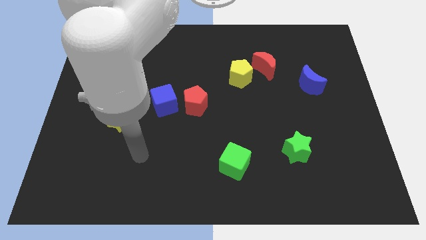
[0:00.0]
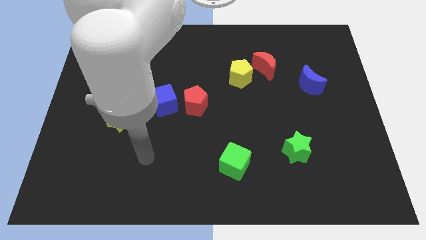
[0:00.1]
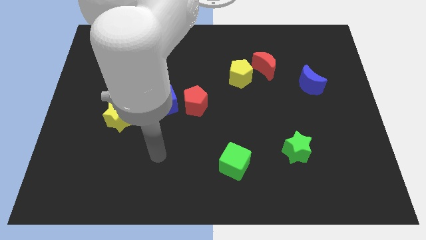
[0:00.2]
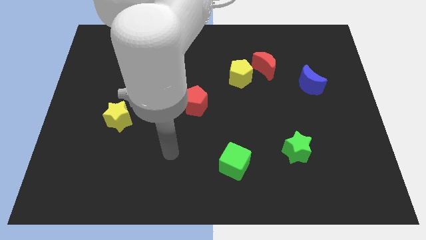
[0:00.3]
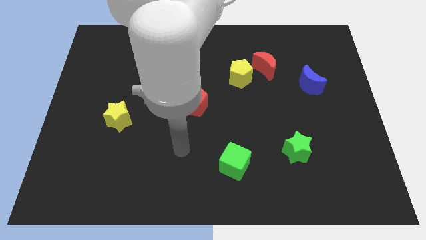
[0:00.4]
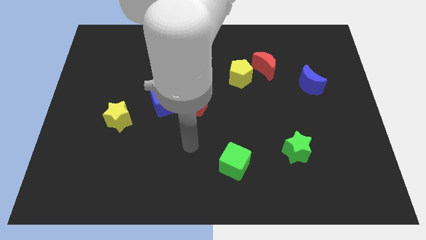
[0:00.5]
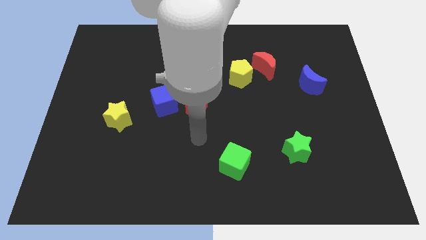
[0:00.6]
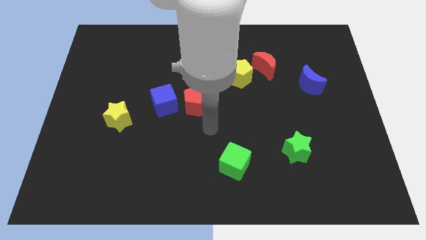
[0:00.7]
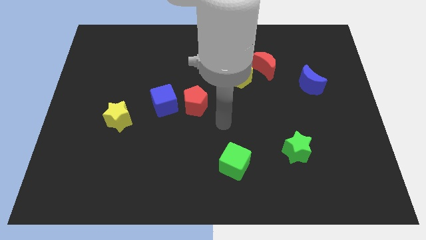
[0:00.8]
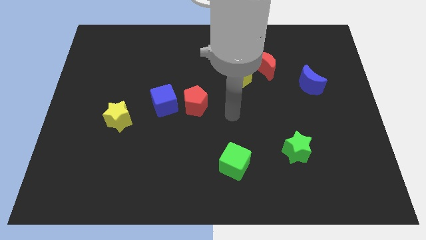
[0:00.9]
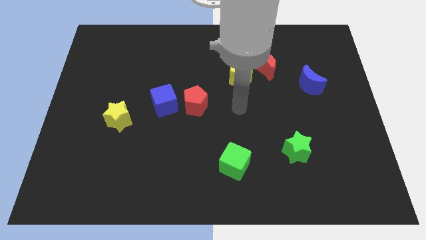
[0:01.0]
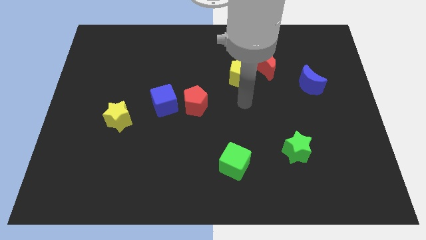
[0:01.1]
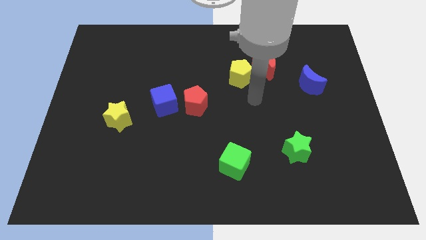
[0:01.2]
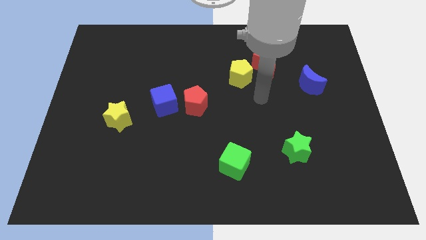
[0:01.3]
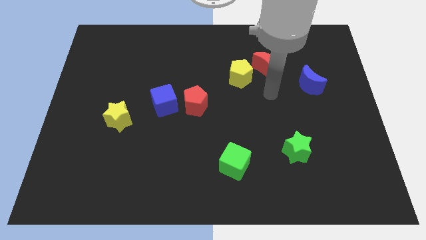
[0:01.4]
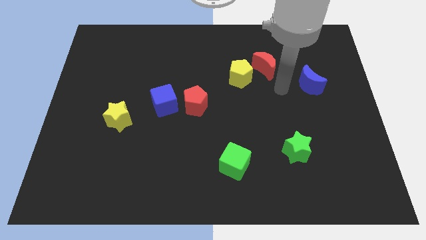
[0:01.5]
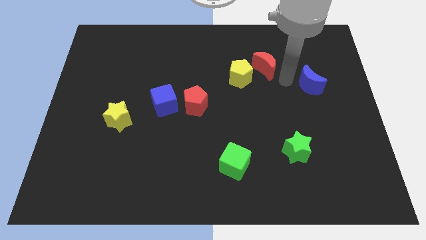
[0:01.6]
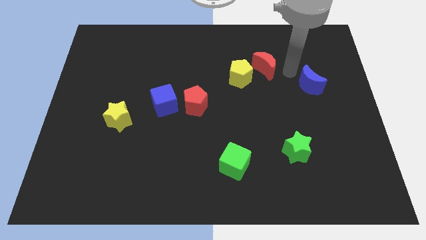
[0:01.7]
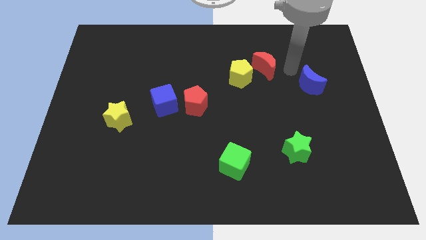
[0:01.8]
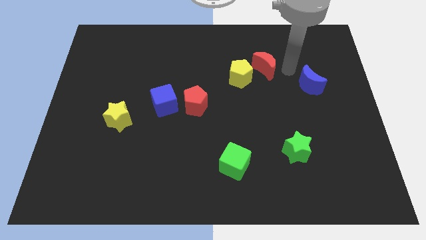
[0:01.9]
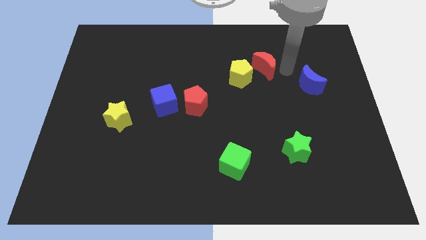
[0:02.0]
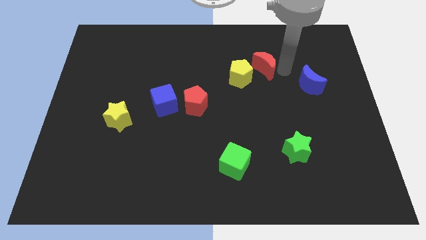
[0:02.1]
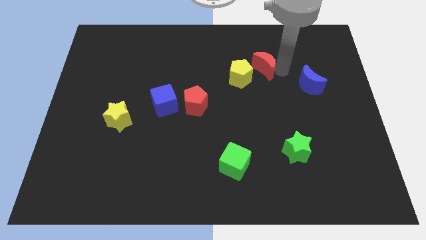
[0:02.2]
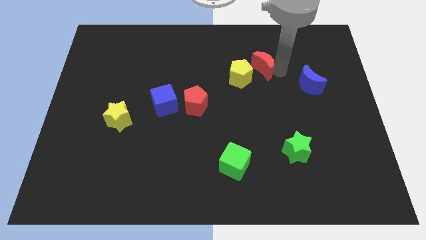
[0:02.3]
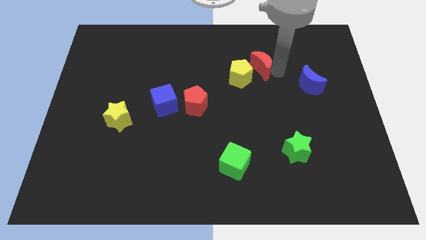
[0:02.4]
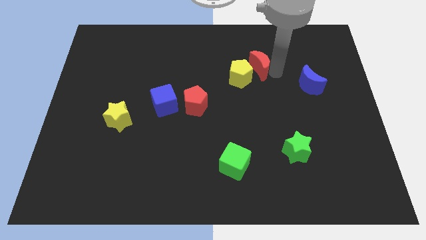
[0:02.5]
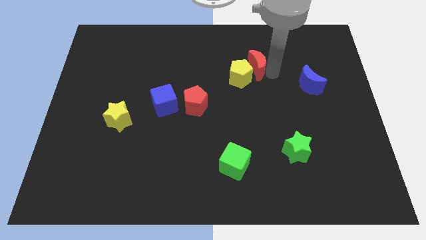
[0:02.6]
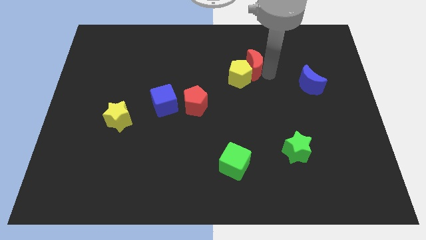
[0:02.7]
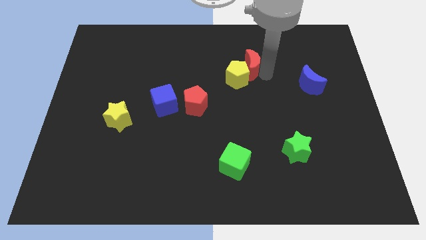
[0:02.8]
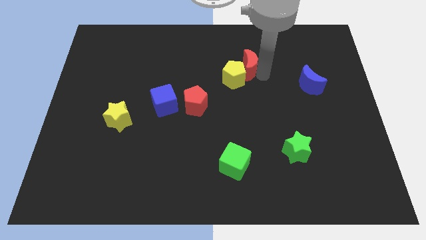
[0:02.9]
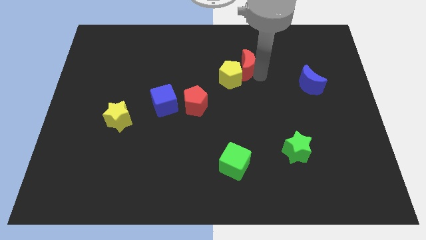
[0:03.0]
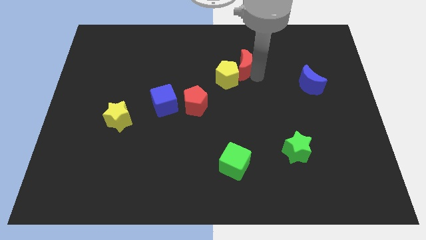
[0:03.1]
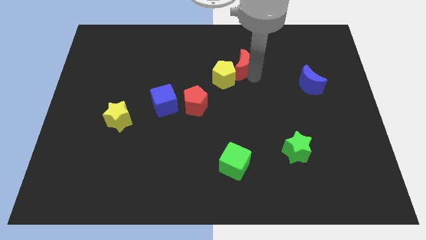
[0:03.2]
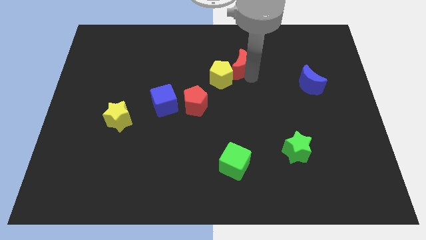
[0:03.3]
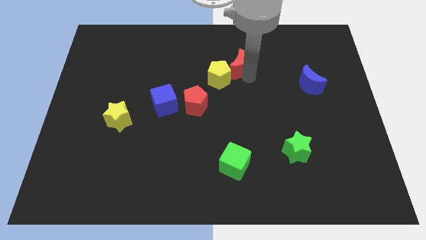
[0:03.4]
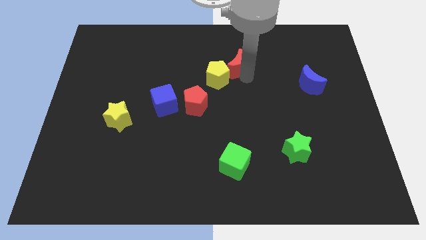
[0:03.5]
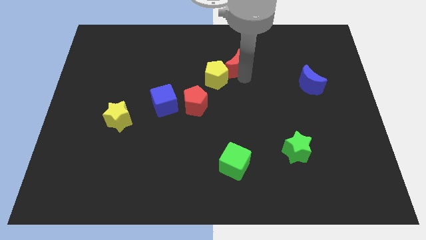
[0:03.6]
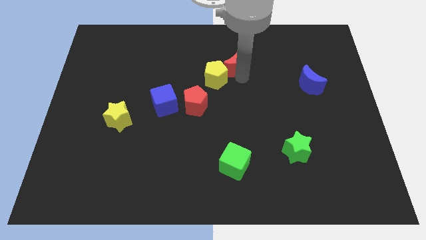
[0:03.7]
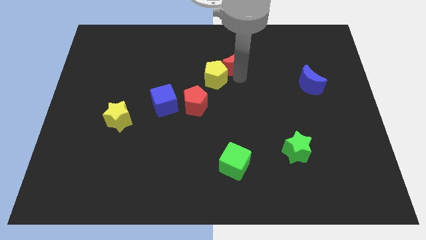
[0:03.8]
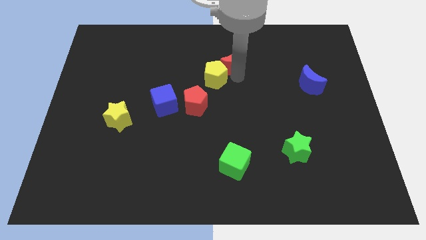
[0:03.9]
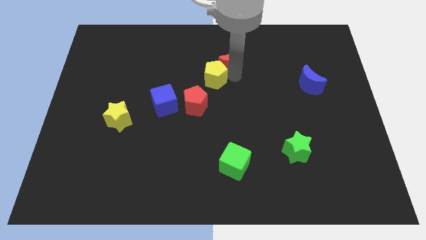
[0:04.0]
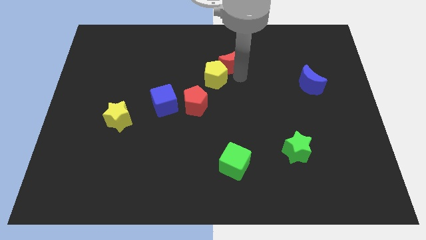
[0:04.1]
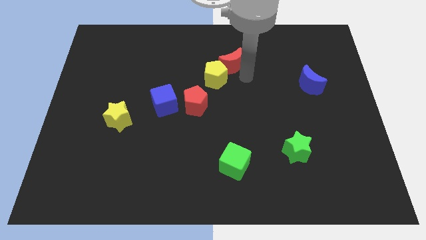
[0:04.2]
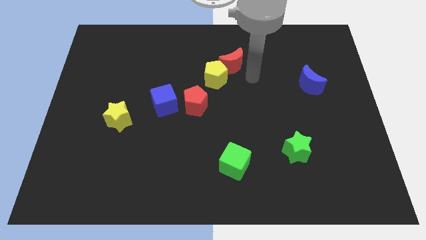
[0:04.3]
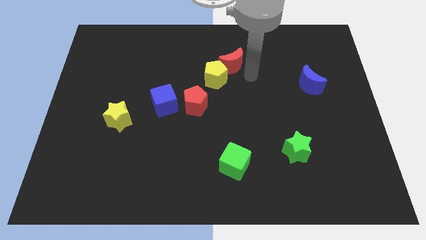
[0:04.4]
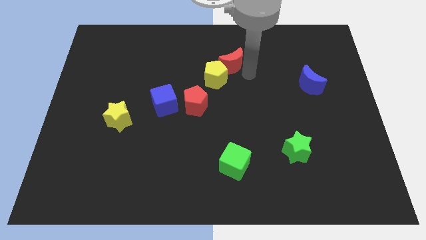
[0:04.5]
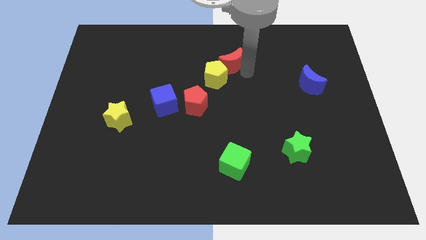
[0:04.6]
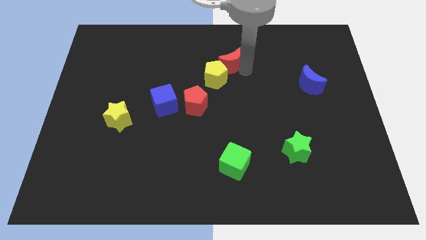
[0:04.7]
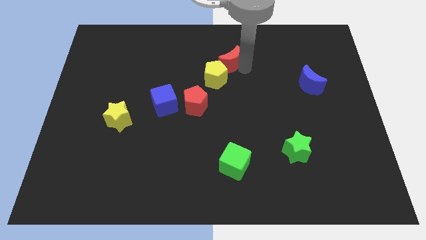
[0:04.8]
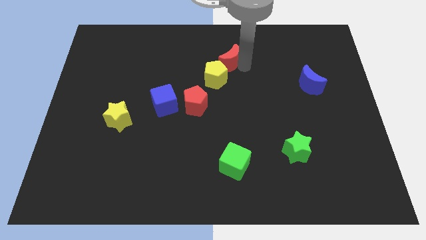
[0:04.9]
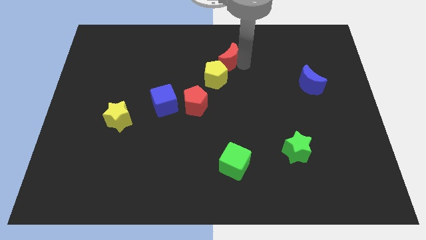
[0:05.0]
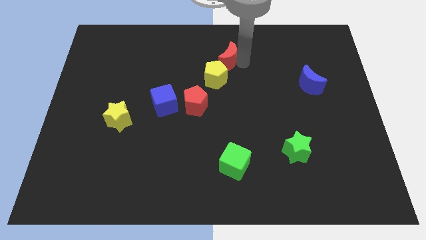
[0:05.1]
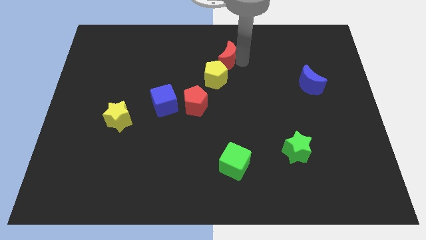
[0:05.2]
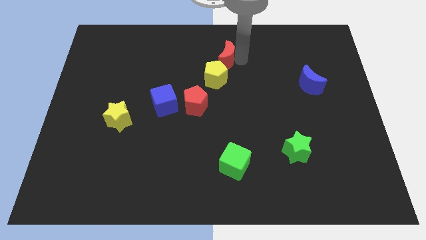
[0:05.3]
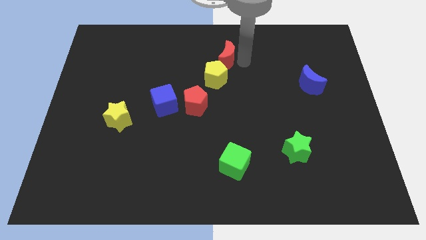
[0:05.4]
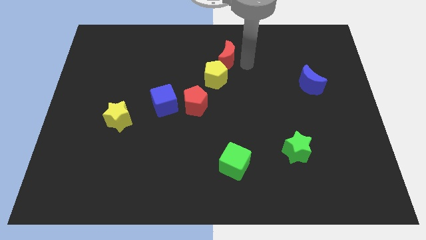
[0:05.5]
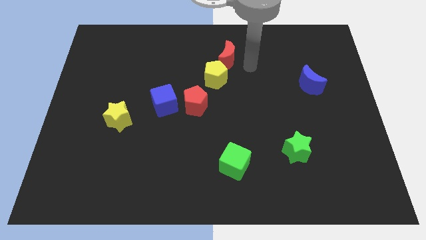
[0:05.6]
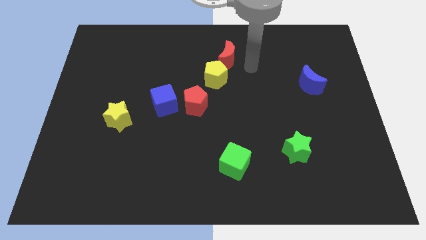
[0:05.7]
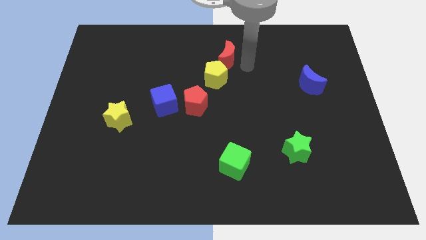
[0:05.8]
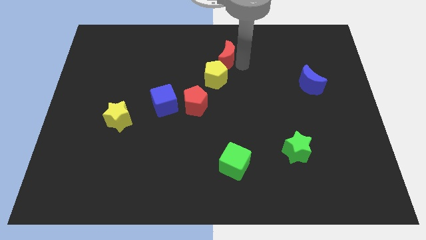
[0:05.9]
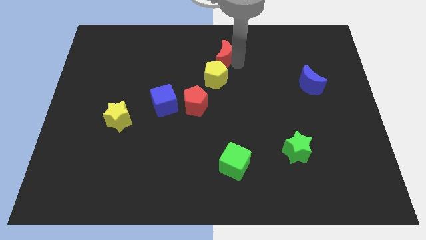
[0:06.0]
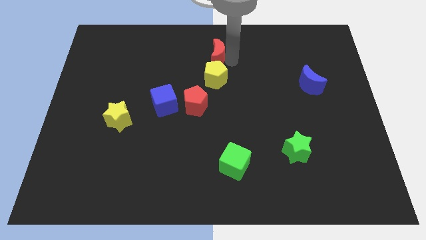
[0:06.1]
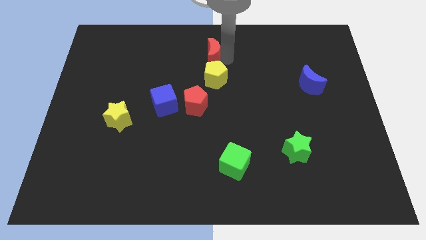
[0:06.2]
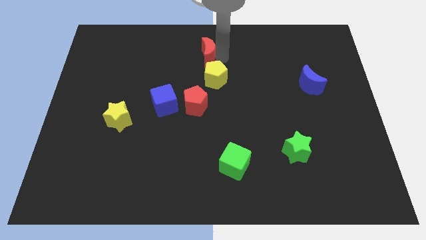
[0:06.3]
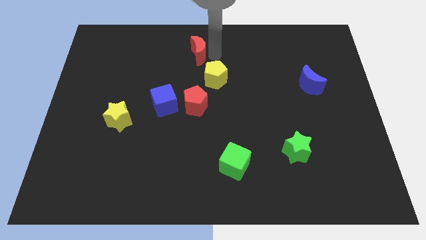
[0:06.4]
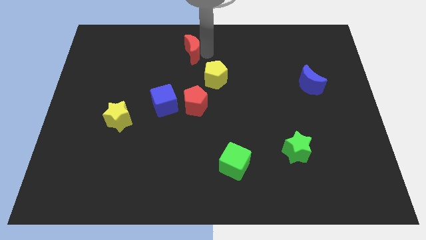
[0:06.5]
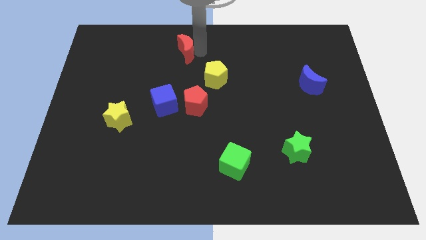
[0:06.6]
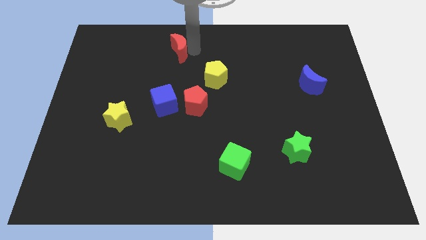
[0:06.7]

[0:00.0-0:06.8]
slide the red moon to the left

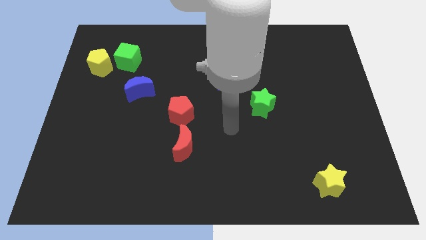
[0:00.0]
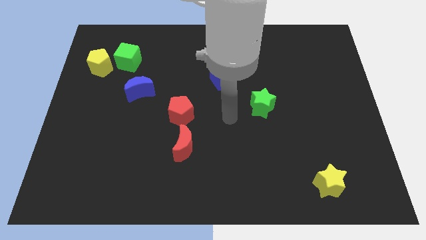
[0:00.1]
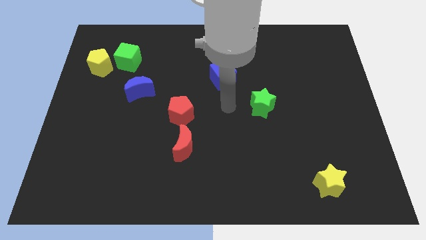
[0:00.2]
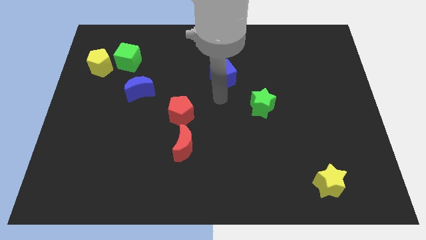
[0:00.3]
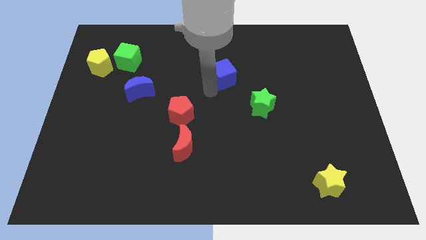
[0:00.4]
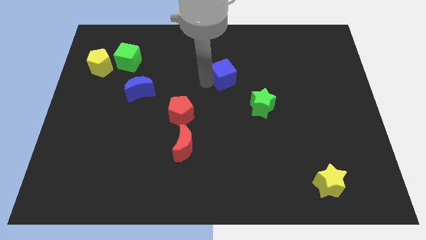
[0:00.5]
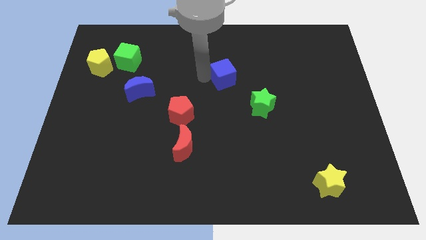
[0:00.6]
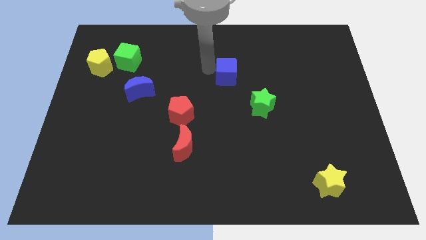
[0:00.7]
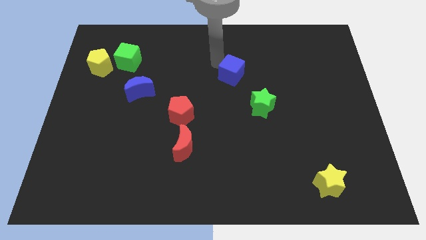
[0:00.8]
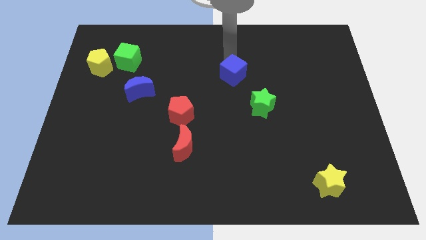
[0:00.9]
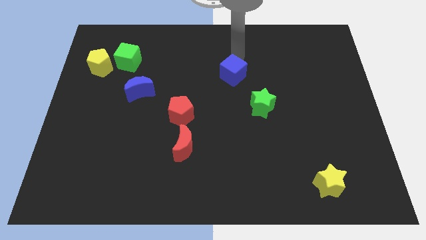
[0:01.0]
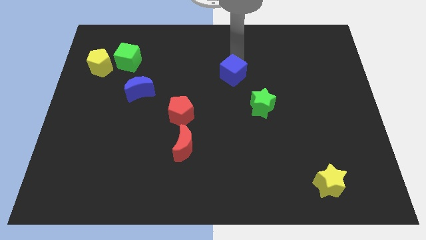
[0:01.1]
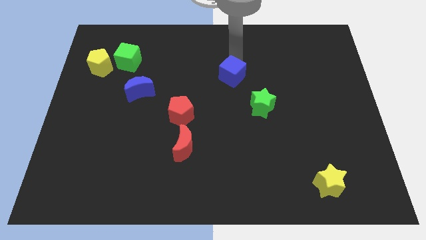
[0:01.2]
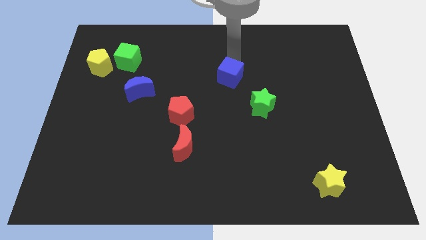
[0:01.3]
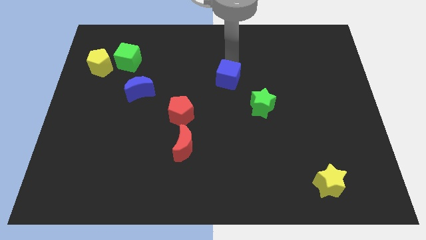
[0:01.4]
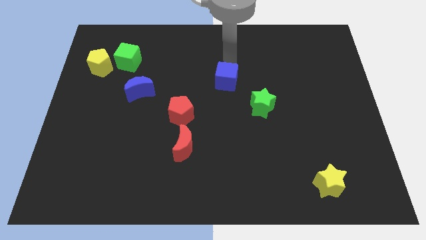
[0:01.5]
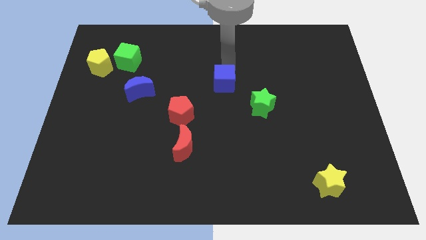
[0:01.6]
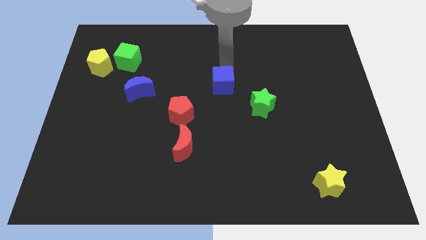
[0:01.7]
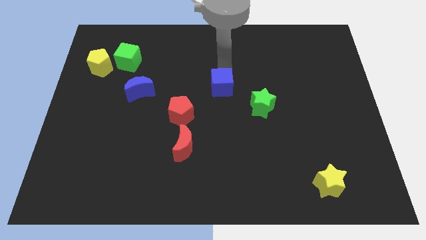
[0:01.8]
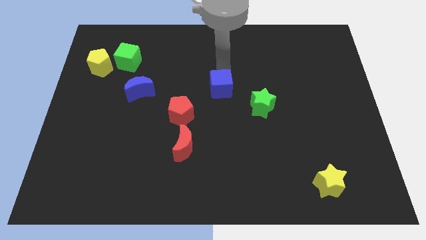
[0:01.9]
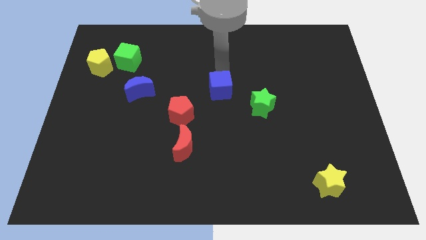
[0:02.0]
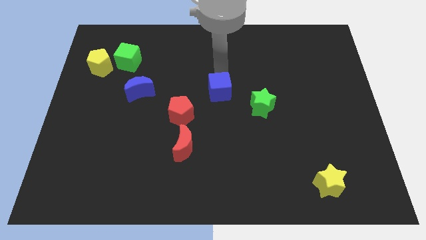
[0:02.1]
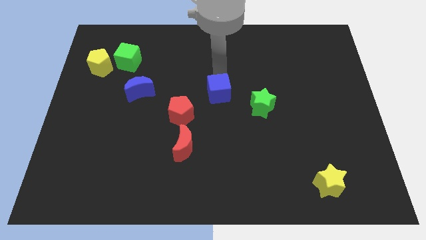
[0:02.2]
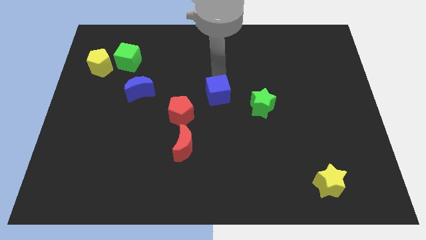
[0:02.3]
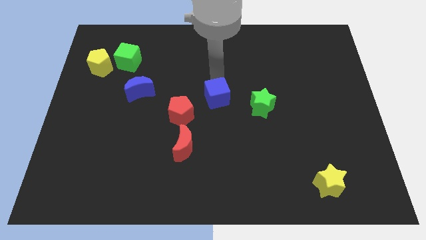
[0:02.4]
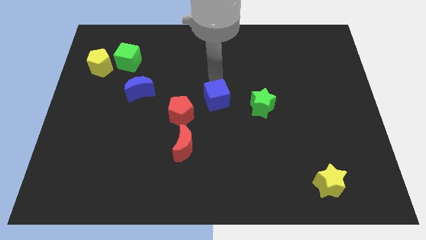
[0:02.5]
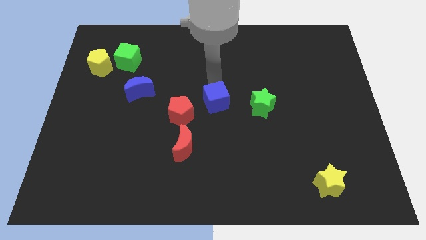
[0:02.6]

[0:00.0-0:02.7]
move the blue cube down a little
